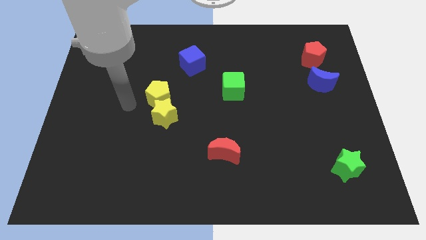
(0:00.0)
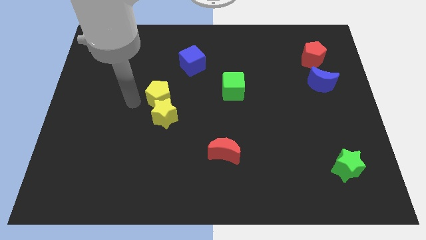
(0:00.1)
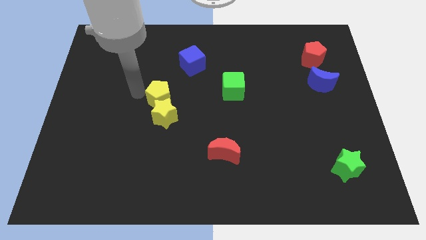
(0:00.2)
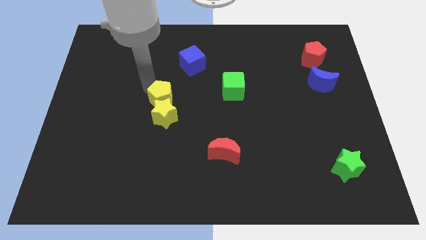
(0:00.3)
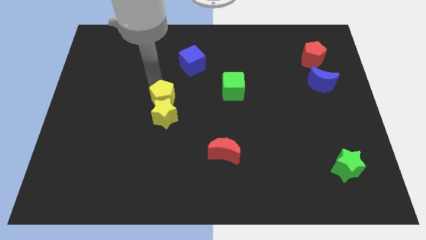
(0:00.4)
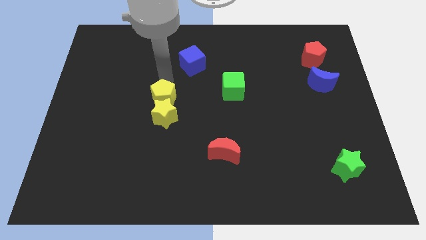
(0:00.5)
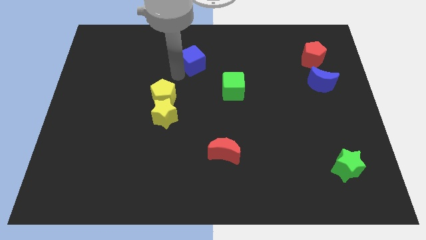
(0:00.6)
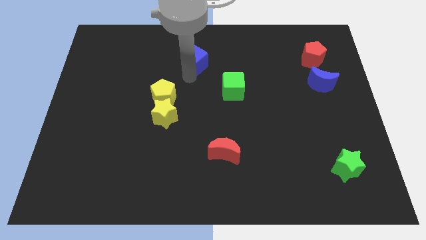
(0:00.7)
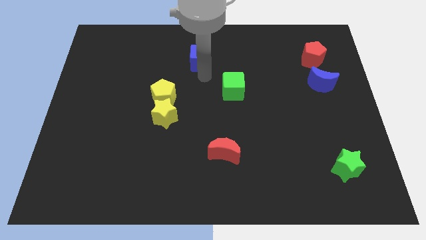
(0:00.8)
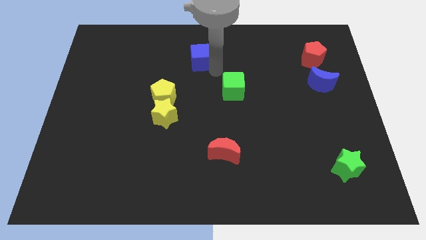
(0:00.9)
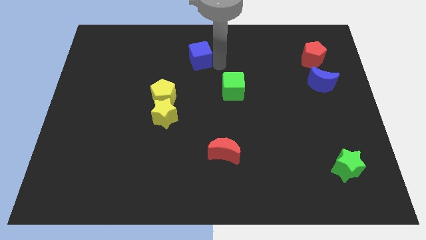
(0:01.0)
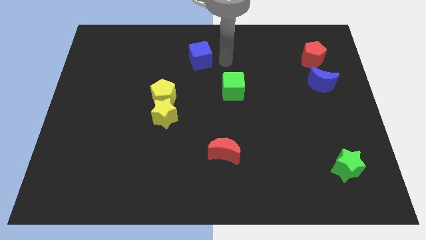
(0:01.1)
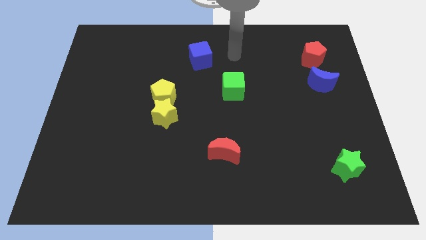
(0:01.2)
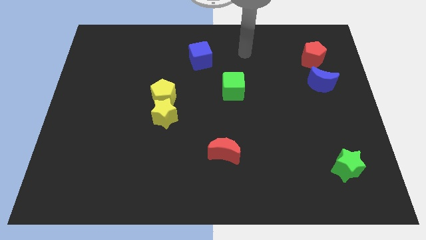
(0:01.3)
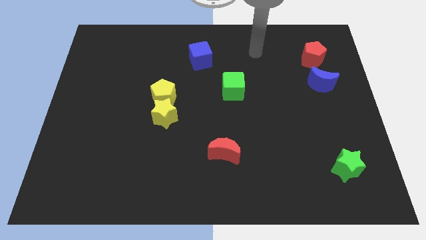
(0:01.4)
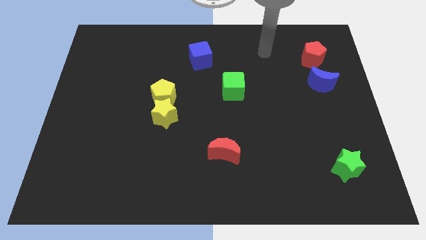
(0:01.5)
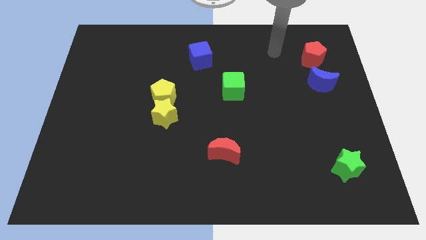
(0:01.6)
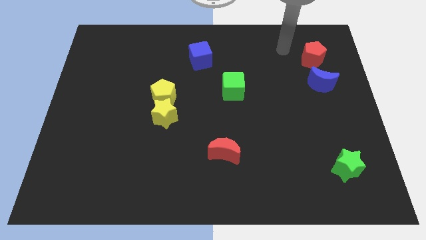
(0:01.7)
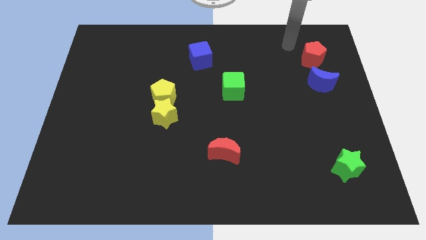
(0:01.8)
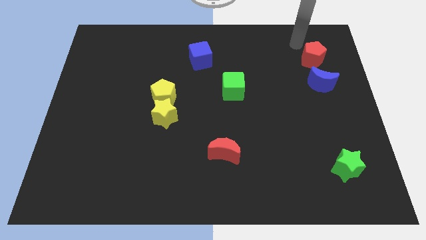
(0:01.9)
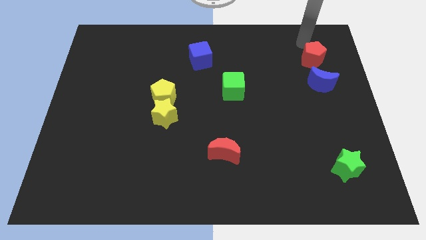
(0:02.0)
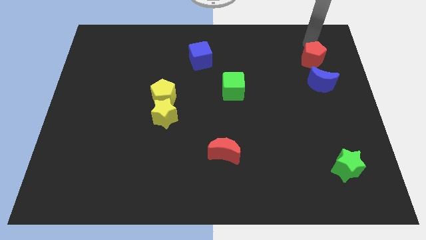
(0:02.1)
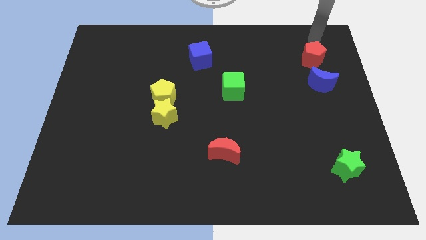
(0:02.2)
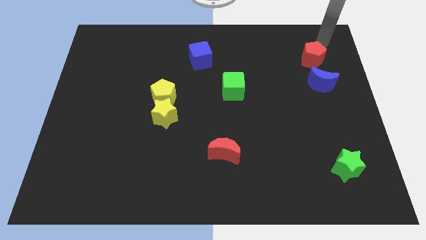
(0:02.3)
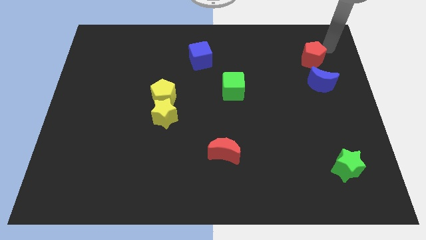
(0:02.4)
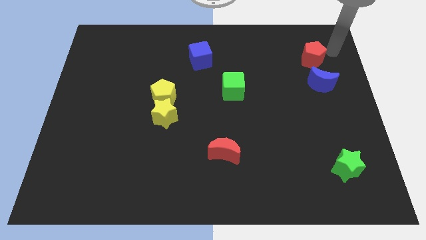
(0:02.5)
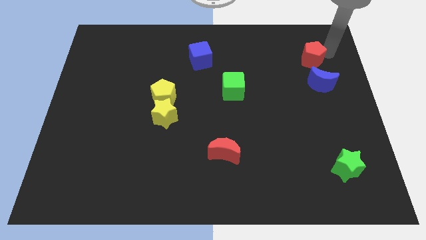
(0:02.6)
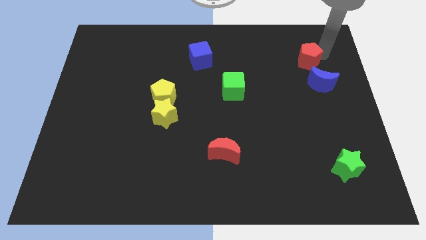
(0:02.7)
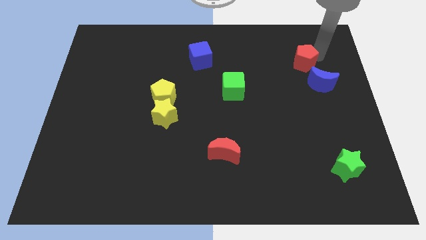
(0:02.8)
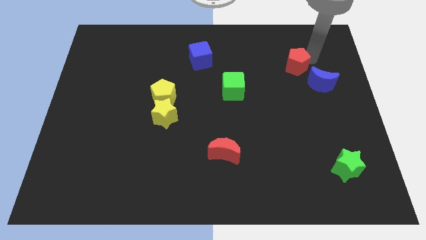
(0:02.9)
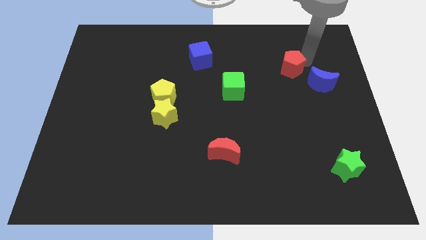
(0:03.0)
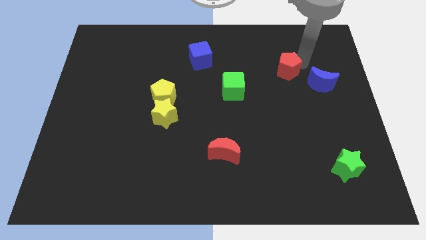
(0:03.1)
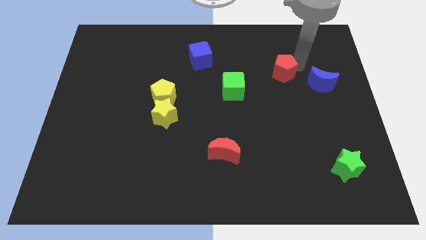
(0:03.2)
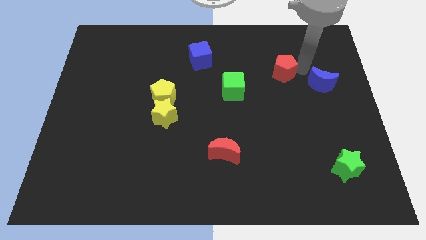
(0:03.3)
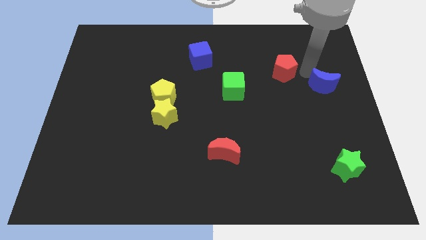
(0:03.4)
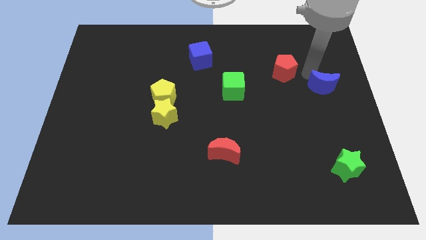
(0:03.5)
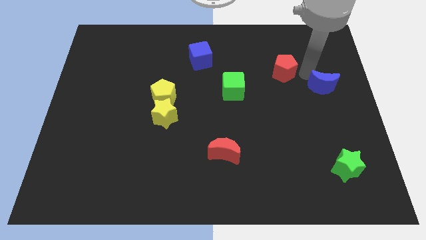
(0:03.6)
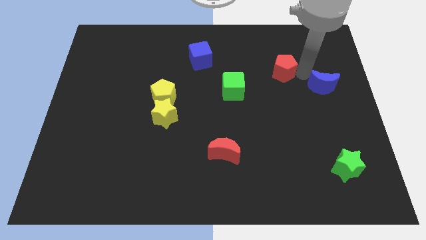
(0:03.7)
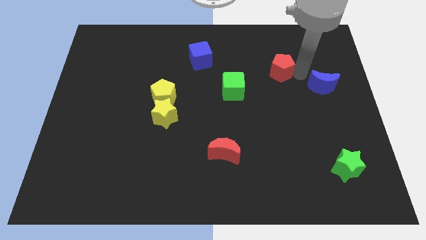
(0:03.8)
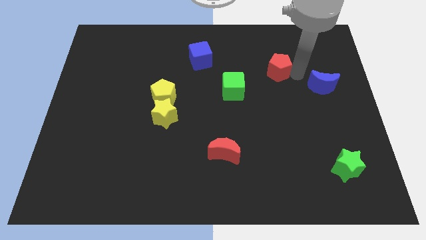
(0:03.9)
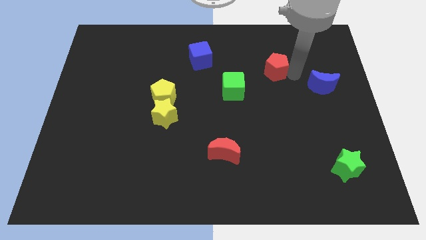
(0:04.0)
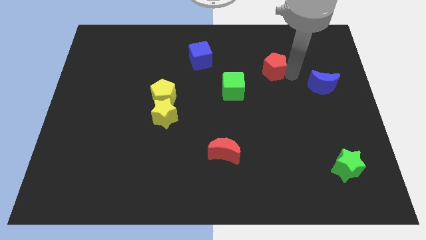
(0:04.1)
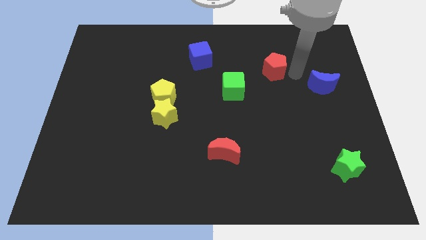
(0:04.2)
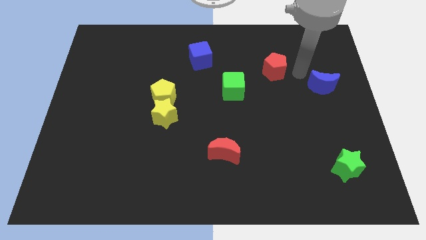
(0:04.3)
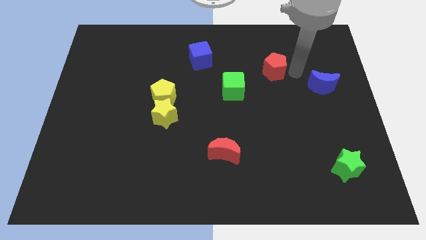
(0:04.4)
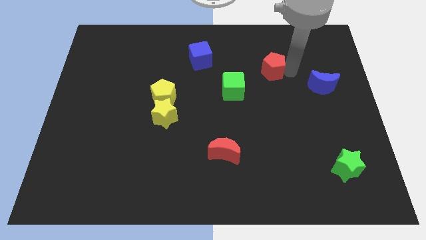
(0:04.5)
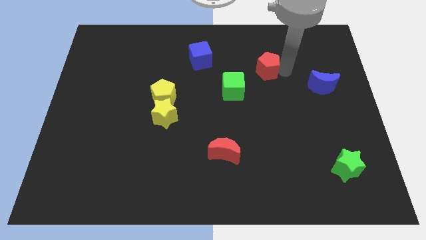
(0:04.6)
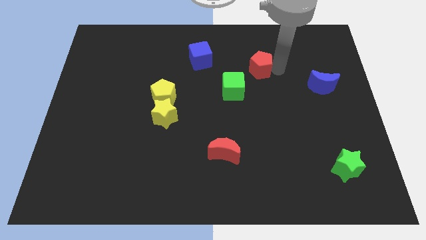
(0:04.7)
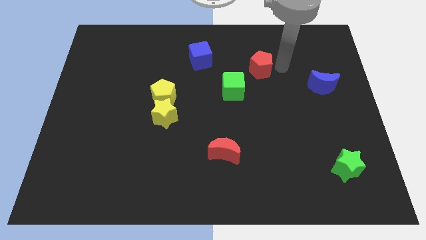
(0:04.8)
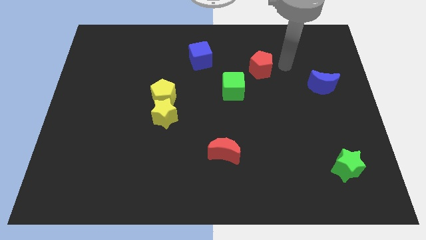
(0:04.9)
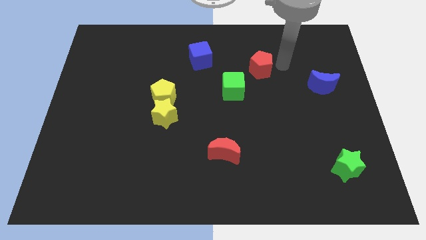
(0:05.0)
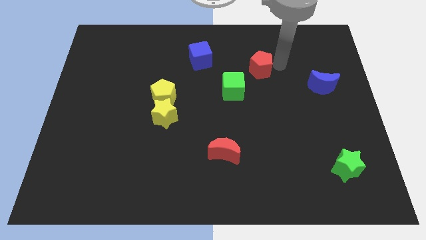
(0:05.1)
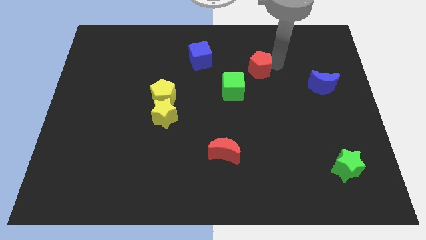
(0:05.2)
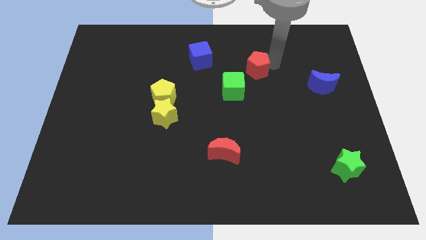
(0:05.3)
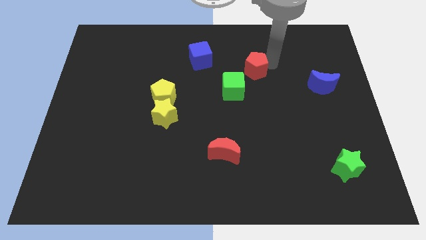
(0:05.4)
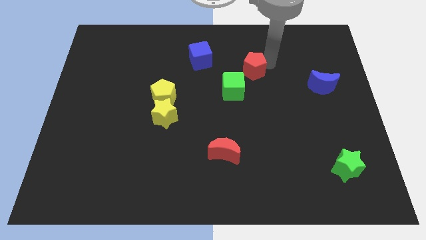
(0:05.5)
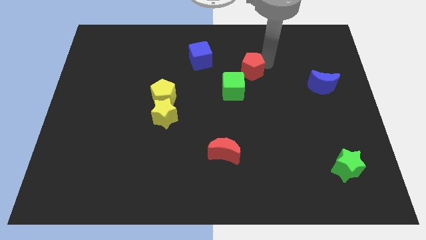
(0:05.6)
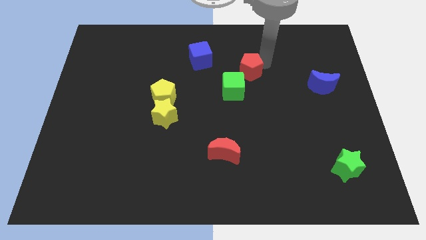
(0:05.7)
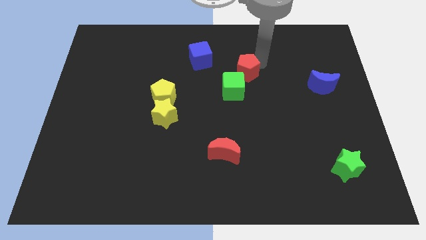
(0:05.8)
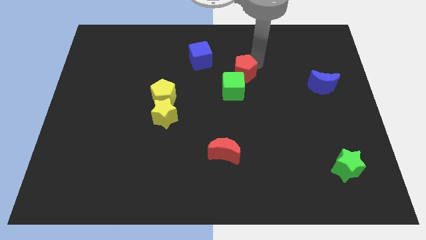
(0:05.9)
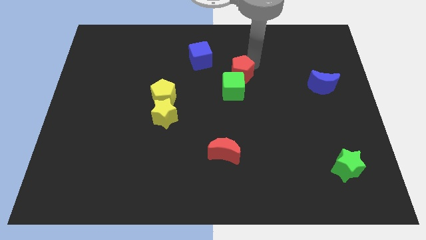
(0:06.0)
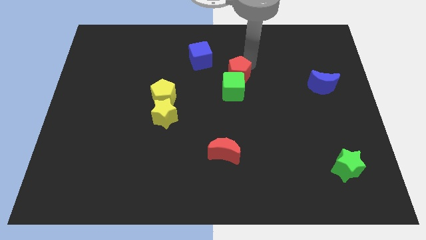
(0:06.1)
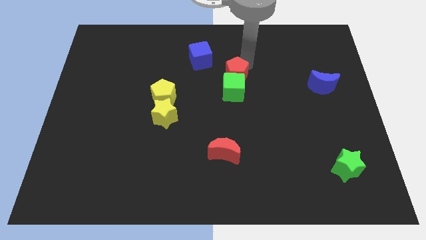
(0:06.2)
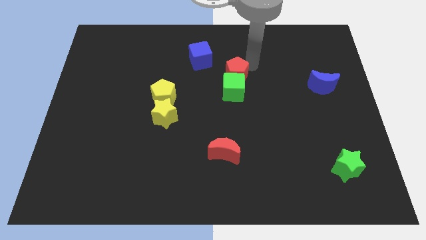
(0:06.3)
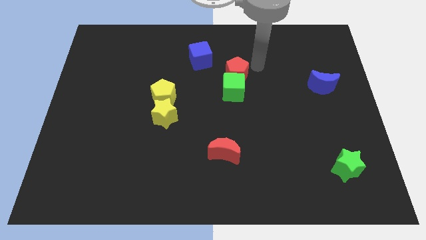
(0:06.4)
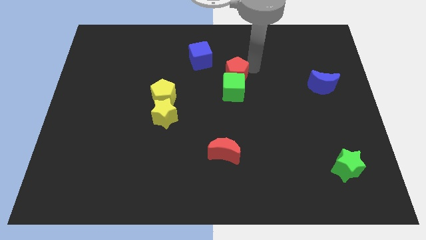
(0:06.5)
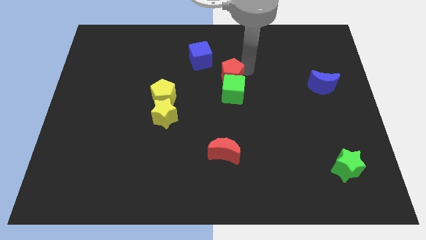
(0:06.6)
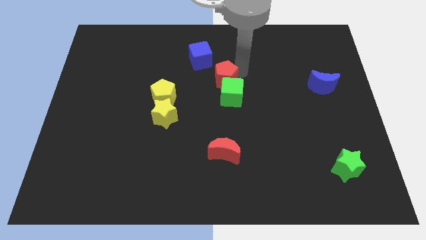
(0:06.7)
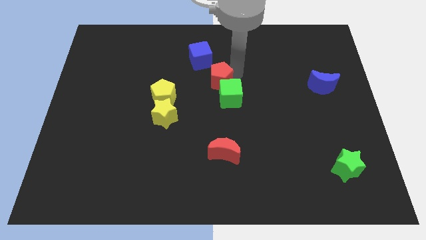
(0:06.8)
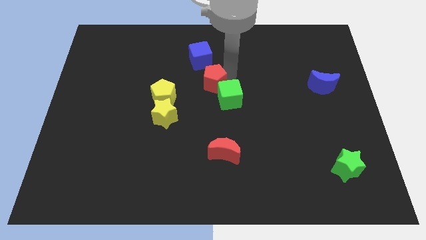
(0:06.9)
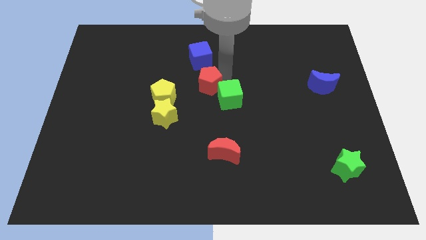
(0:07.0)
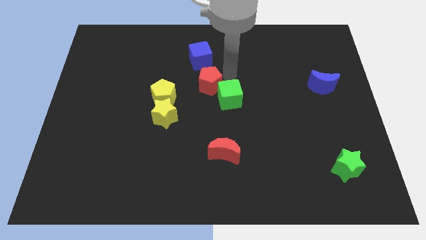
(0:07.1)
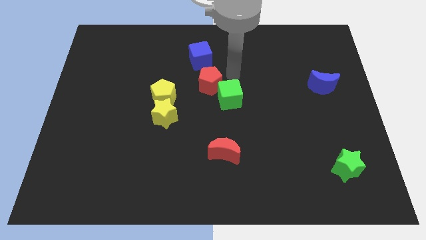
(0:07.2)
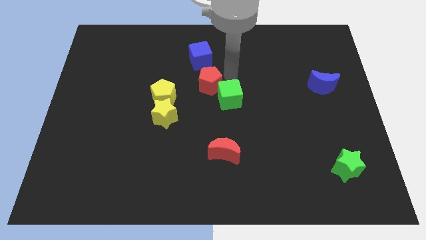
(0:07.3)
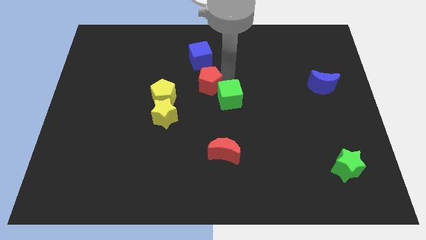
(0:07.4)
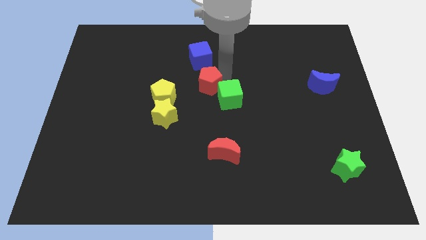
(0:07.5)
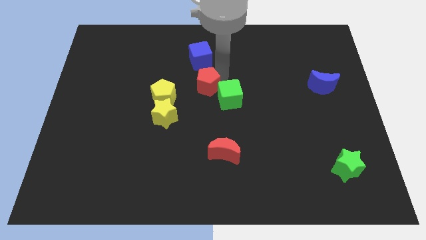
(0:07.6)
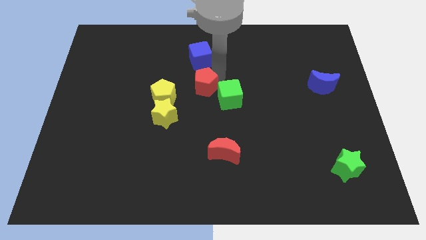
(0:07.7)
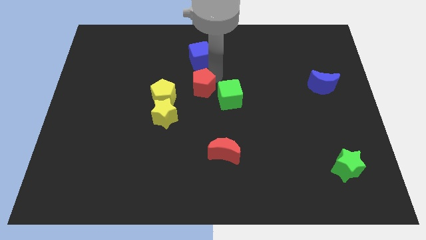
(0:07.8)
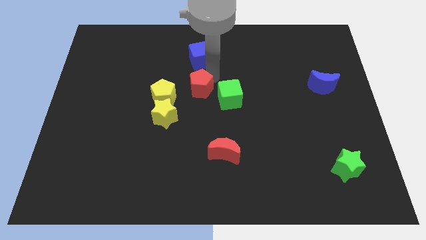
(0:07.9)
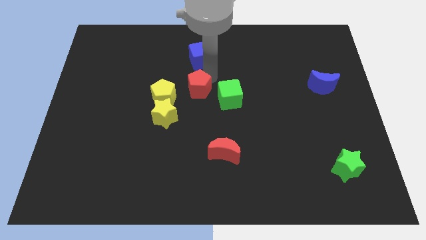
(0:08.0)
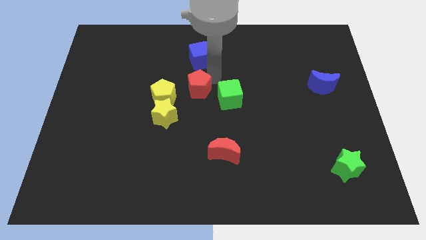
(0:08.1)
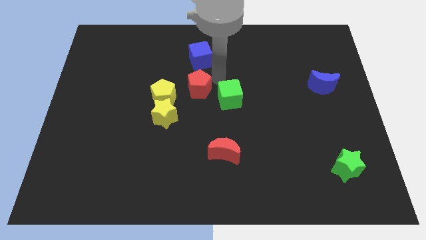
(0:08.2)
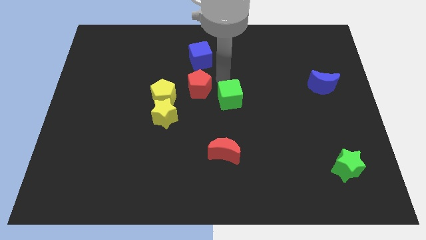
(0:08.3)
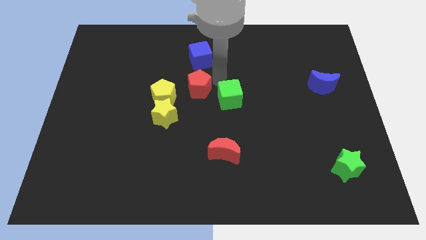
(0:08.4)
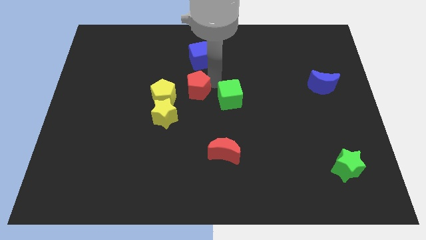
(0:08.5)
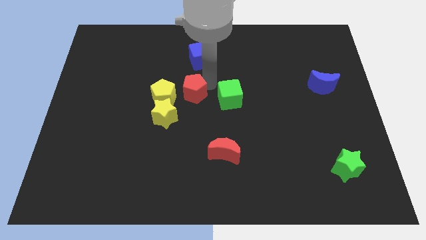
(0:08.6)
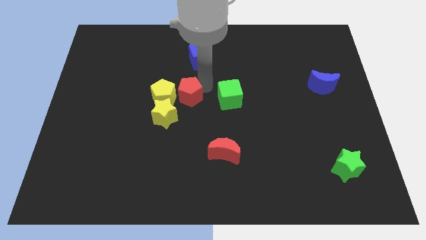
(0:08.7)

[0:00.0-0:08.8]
push the red pentagon towards the yellow pentagon
